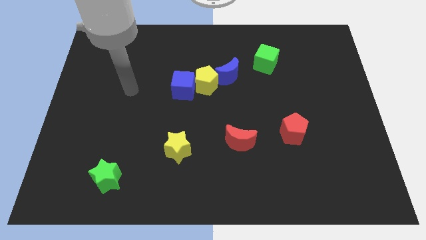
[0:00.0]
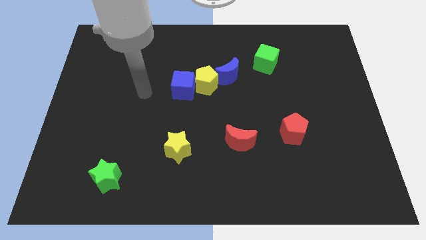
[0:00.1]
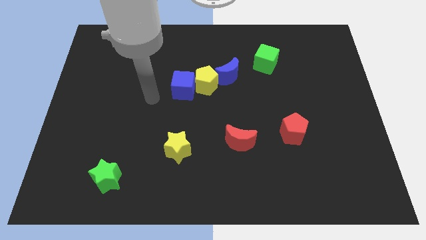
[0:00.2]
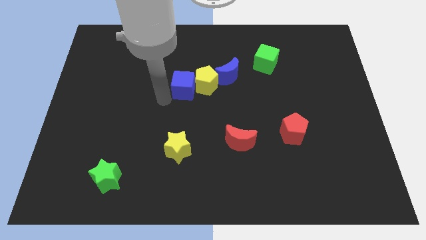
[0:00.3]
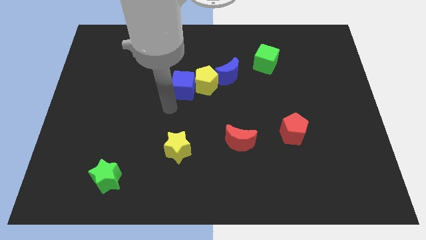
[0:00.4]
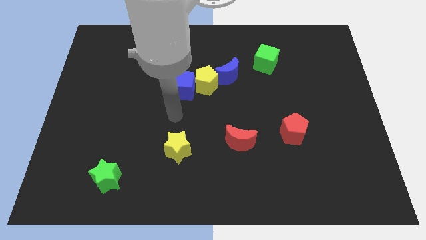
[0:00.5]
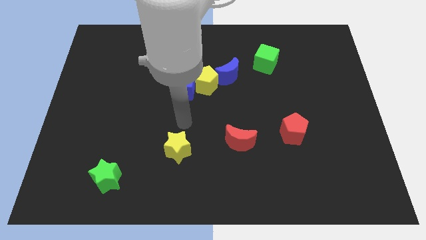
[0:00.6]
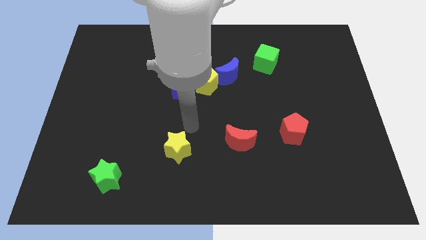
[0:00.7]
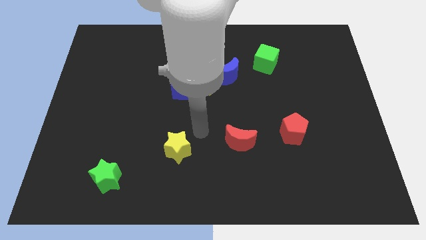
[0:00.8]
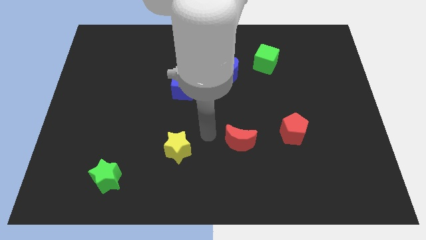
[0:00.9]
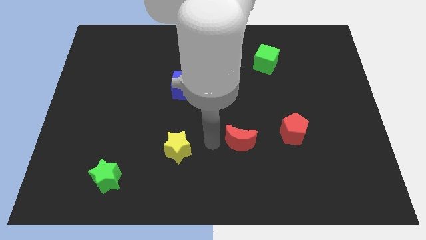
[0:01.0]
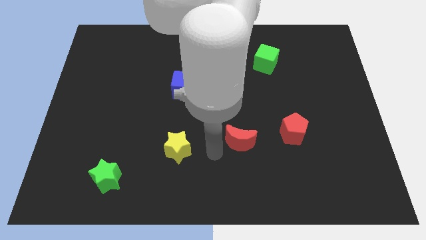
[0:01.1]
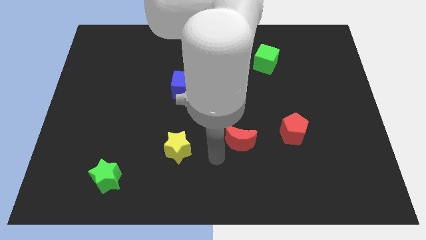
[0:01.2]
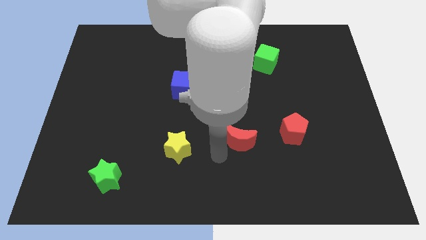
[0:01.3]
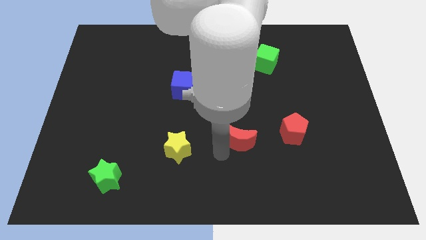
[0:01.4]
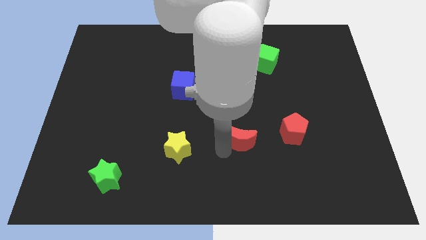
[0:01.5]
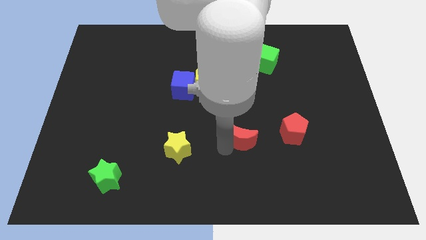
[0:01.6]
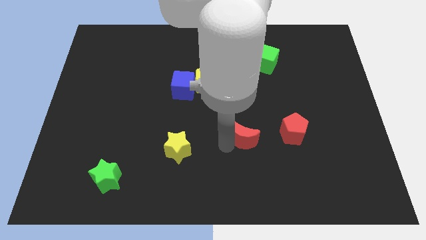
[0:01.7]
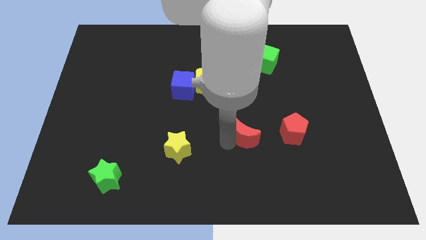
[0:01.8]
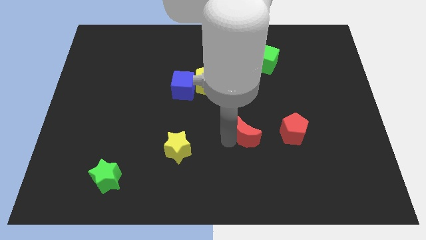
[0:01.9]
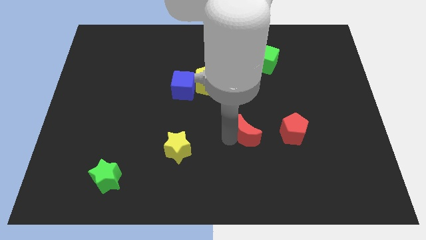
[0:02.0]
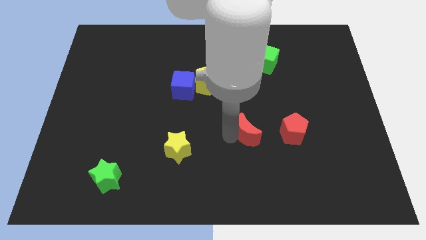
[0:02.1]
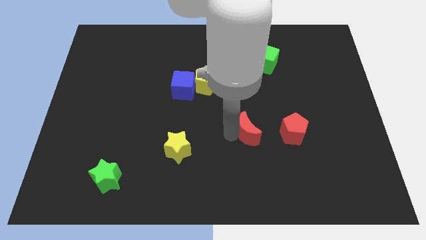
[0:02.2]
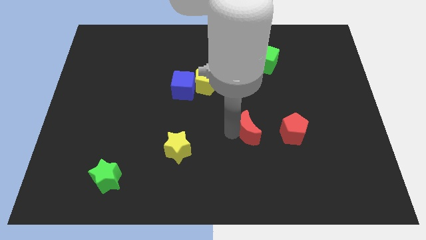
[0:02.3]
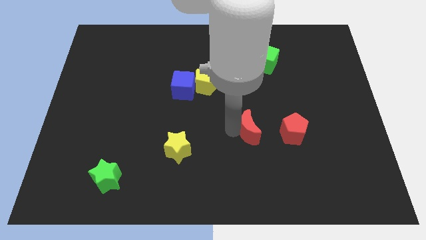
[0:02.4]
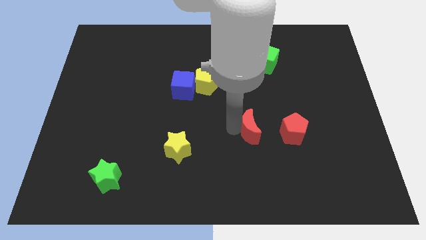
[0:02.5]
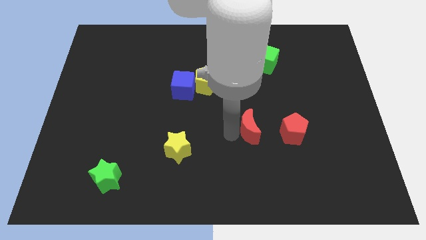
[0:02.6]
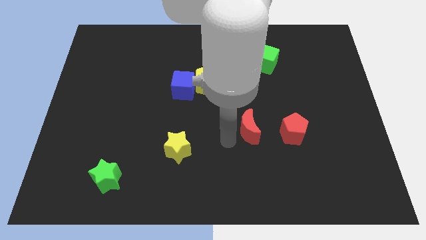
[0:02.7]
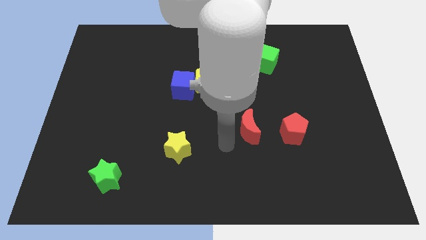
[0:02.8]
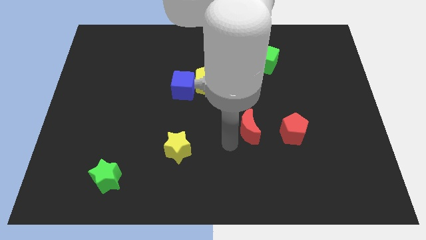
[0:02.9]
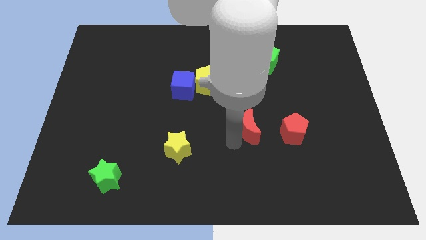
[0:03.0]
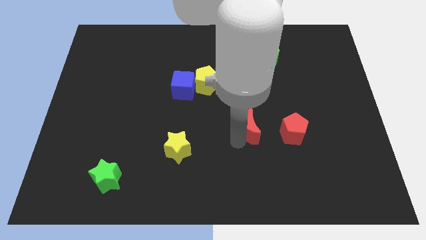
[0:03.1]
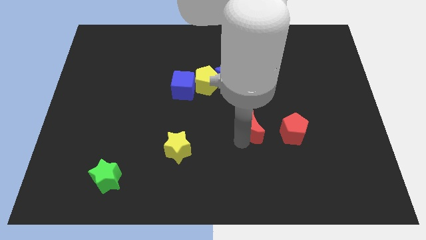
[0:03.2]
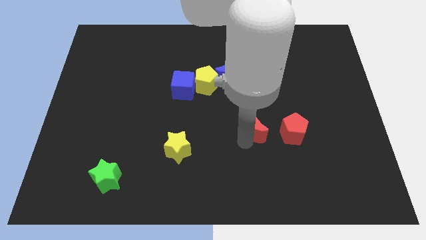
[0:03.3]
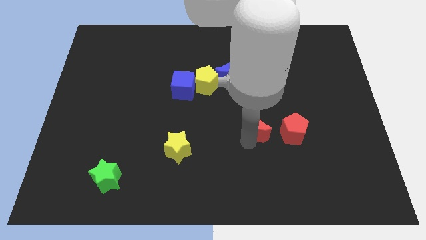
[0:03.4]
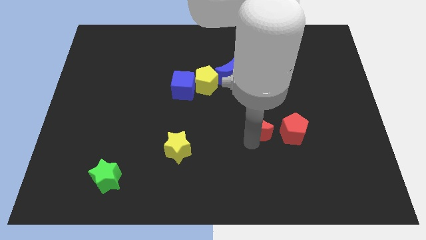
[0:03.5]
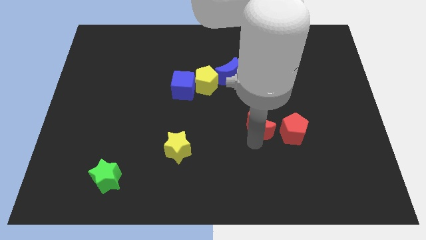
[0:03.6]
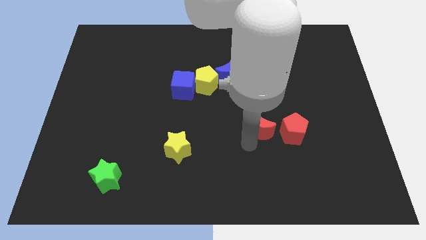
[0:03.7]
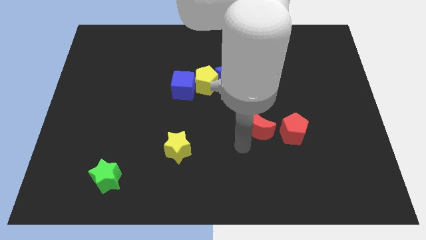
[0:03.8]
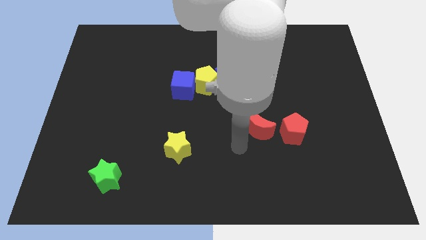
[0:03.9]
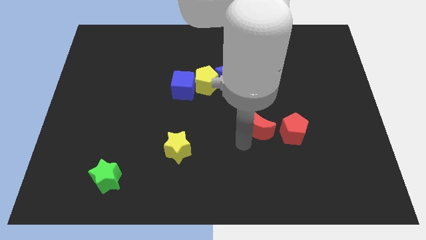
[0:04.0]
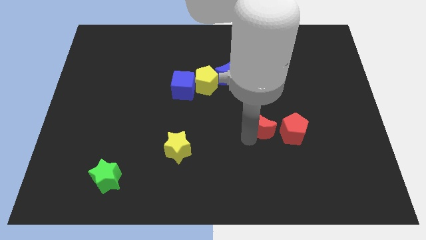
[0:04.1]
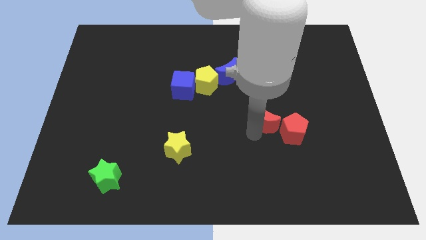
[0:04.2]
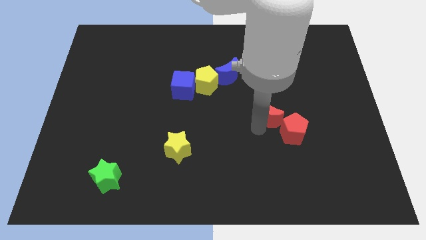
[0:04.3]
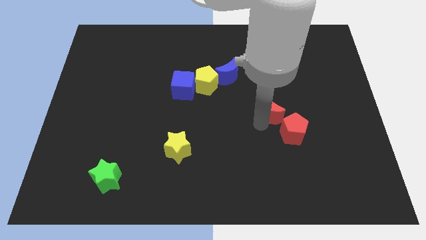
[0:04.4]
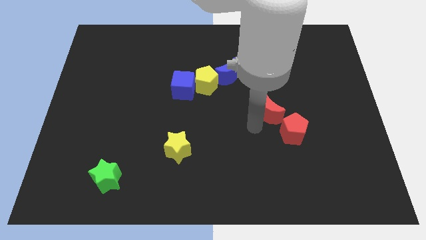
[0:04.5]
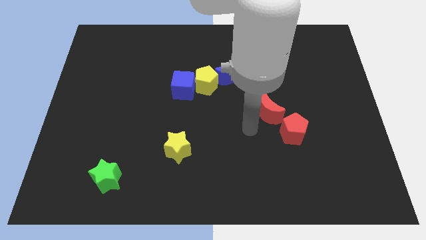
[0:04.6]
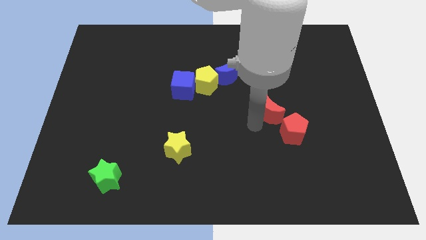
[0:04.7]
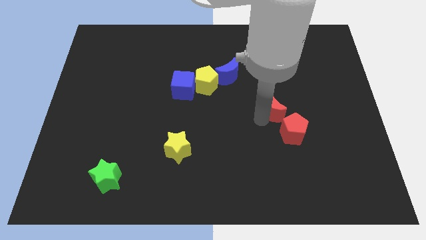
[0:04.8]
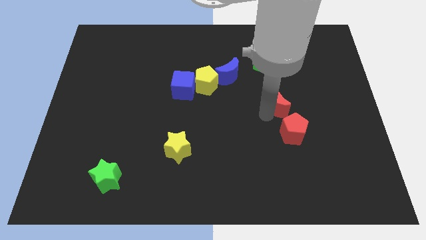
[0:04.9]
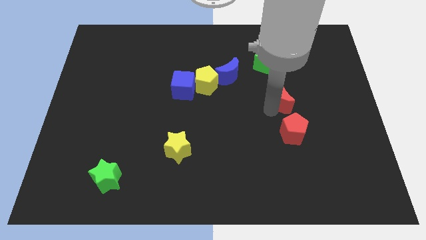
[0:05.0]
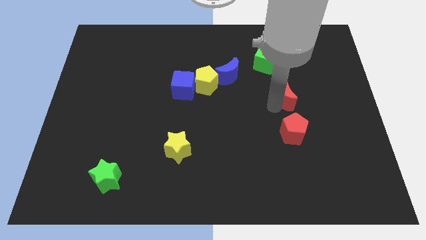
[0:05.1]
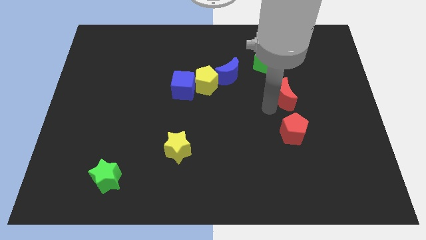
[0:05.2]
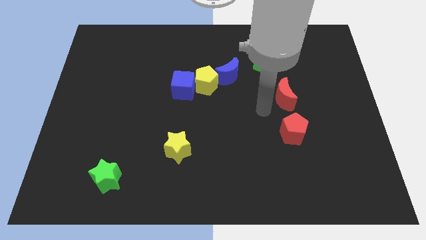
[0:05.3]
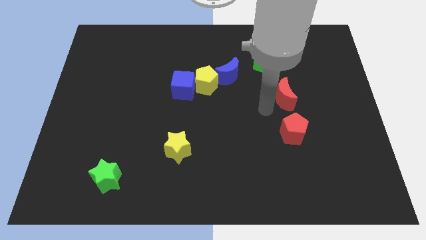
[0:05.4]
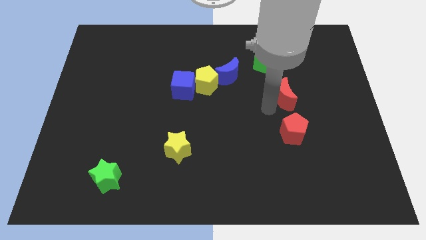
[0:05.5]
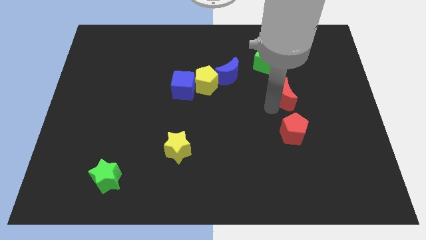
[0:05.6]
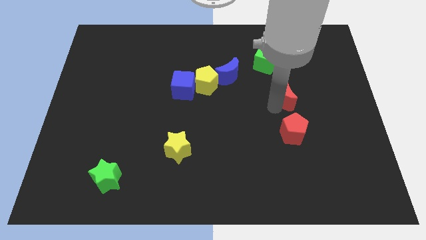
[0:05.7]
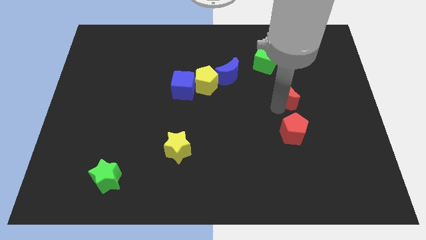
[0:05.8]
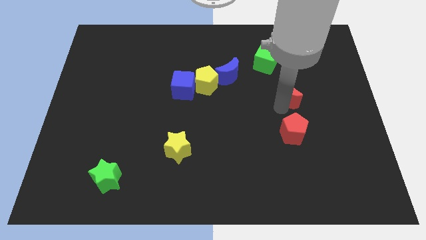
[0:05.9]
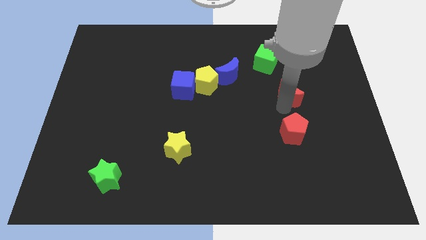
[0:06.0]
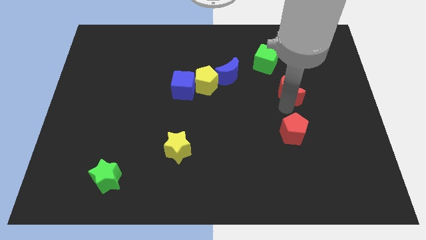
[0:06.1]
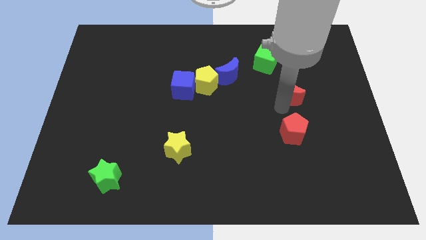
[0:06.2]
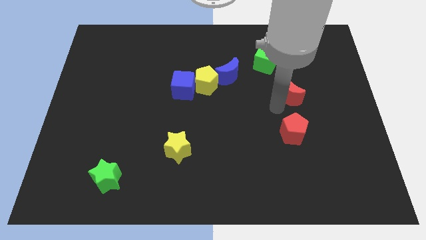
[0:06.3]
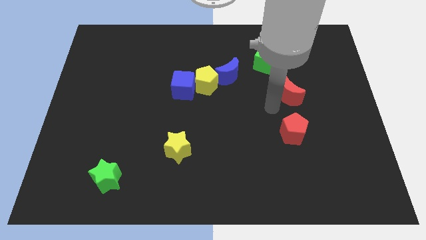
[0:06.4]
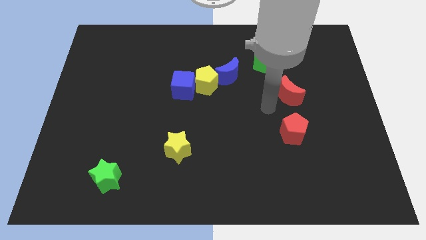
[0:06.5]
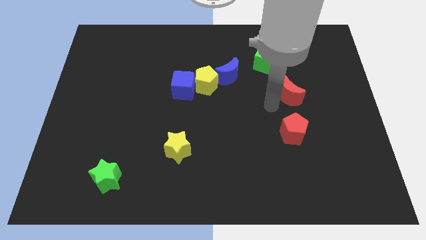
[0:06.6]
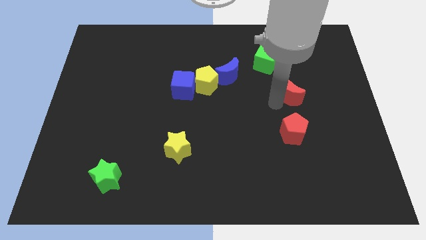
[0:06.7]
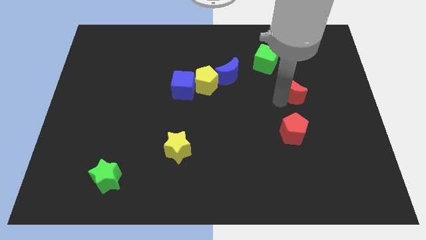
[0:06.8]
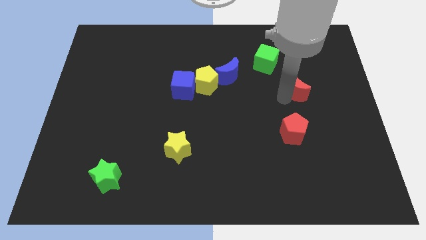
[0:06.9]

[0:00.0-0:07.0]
slide the red moon upwards and right diagonally

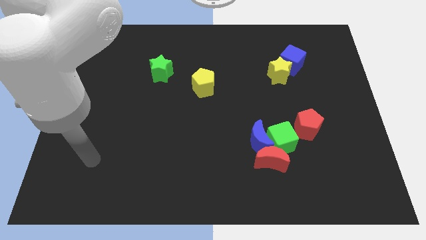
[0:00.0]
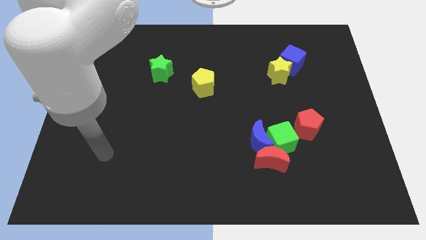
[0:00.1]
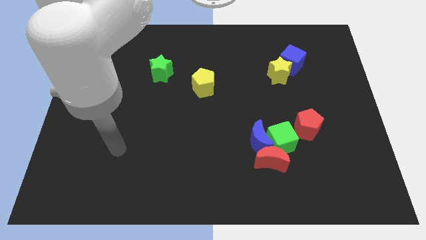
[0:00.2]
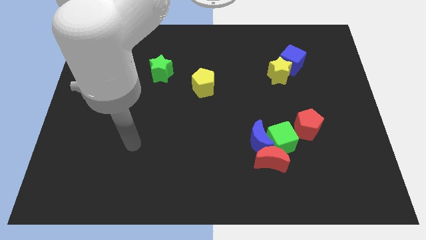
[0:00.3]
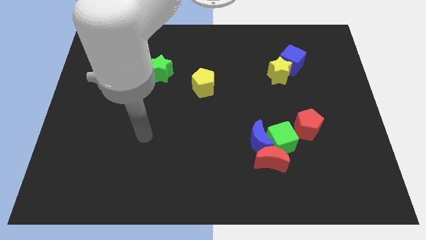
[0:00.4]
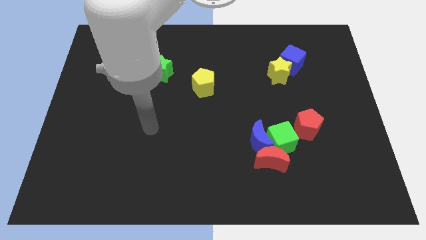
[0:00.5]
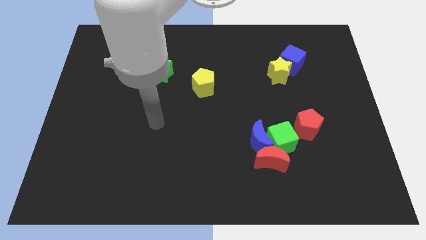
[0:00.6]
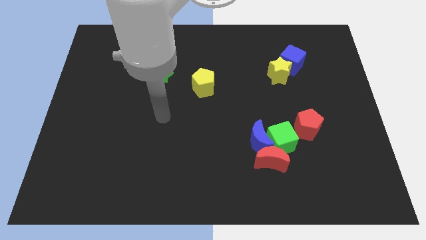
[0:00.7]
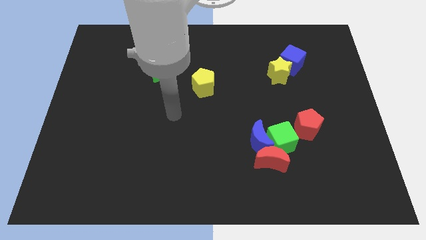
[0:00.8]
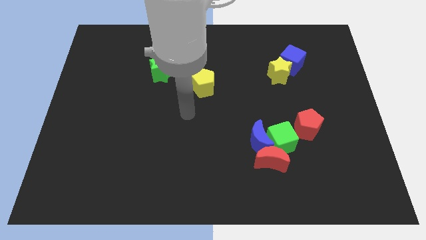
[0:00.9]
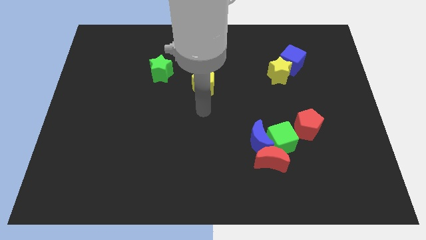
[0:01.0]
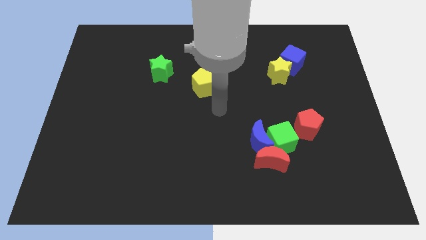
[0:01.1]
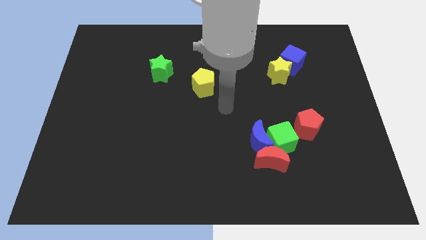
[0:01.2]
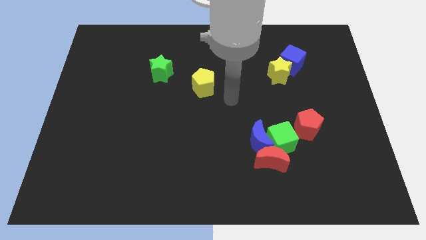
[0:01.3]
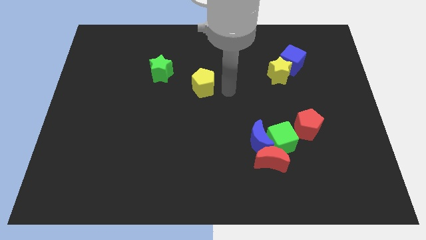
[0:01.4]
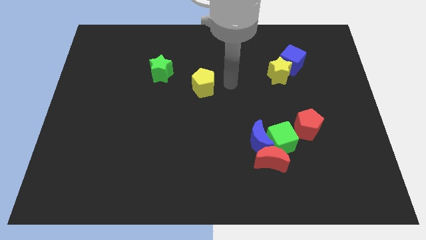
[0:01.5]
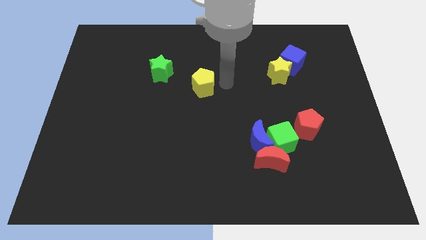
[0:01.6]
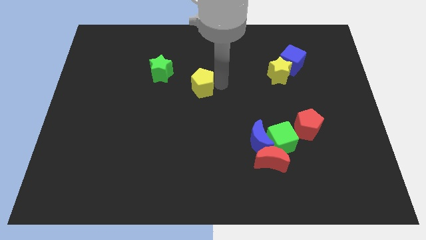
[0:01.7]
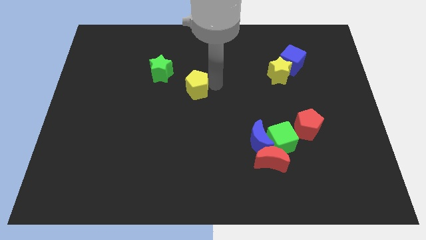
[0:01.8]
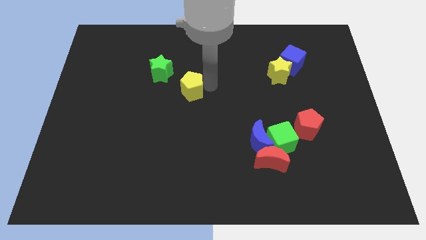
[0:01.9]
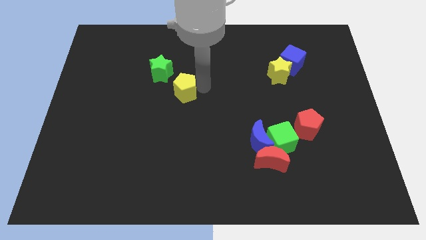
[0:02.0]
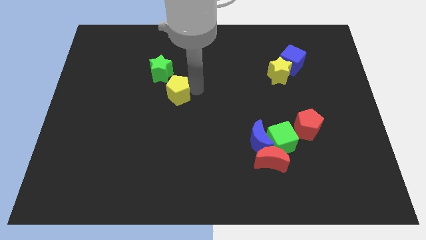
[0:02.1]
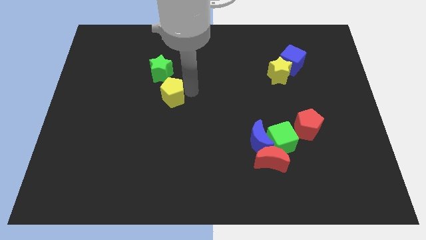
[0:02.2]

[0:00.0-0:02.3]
move the yellow pentagon a little left
